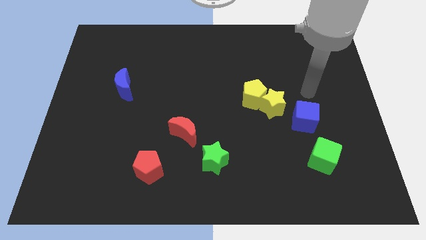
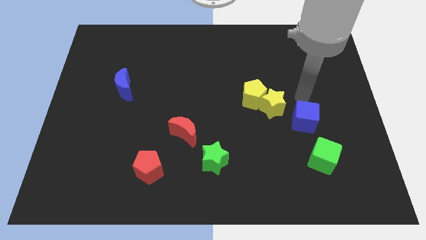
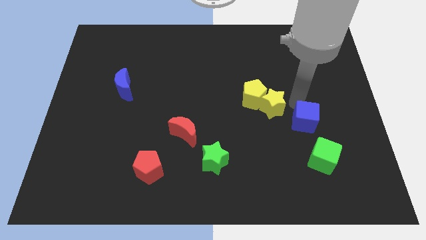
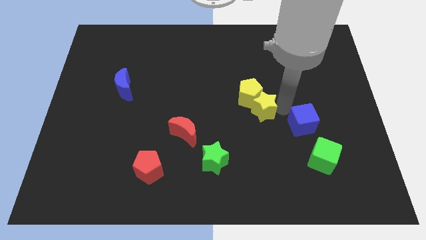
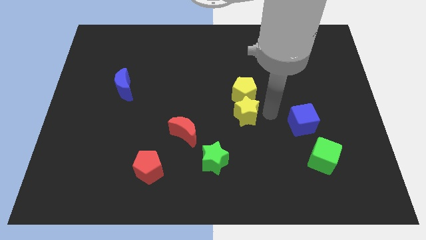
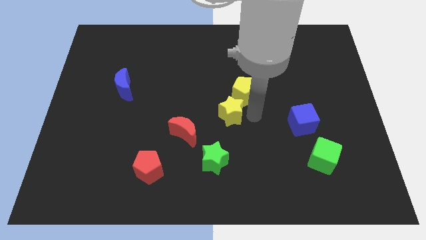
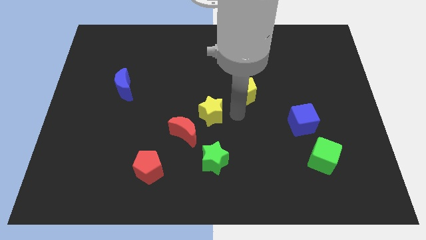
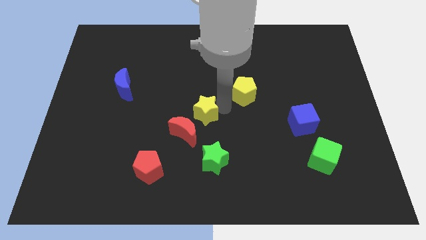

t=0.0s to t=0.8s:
separate the yellow pentagon from the yellow star

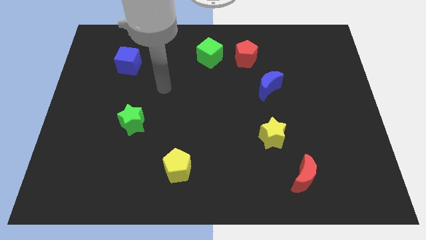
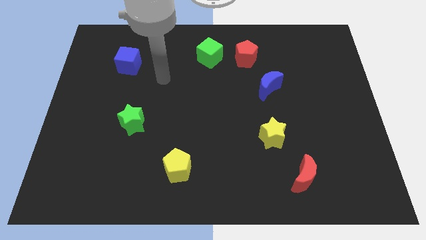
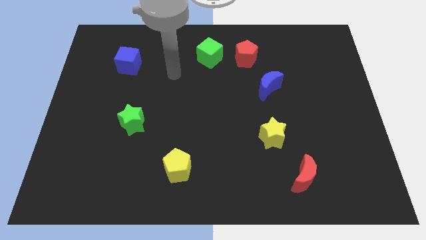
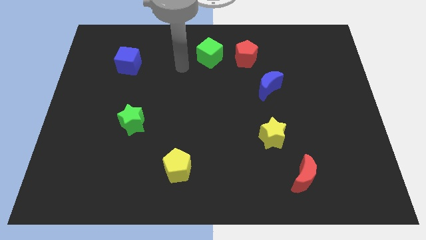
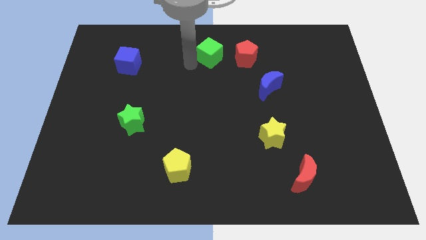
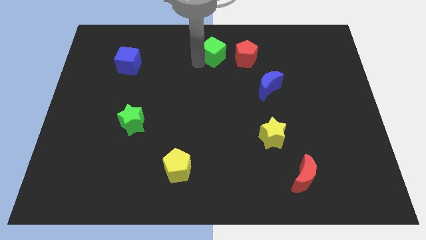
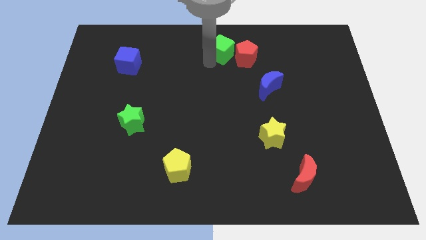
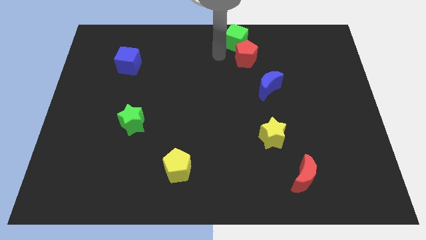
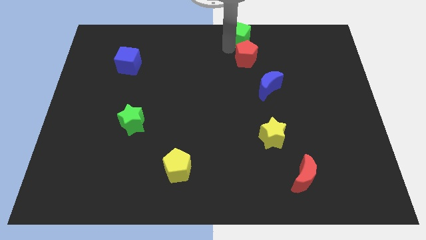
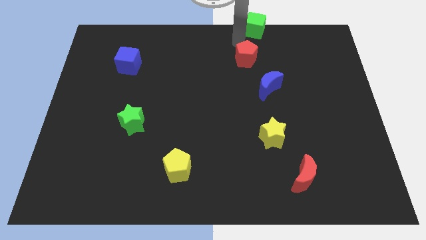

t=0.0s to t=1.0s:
move the red pentagon away from the green cube

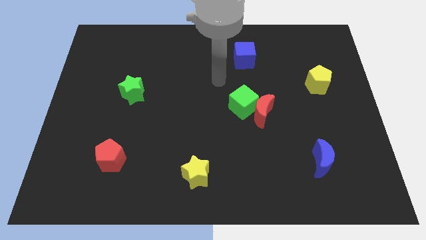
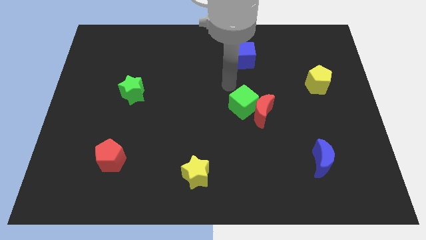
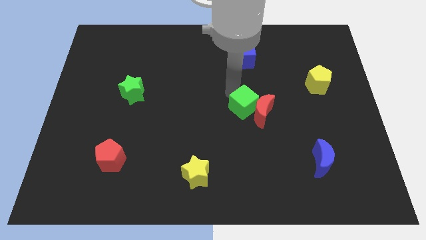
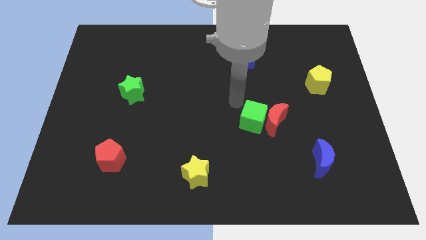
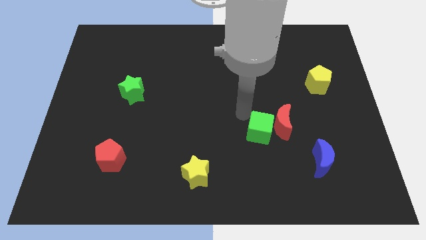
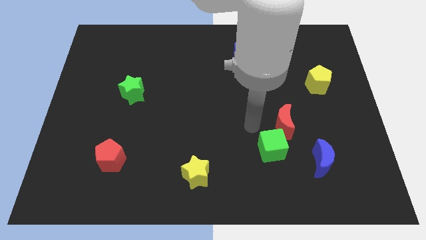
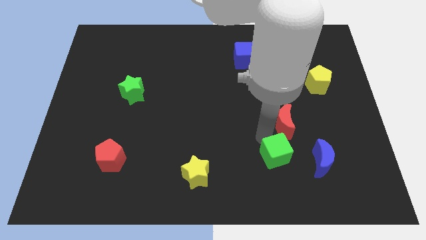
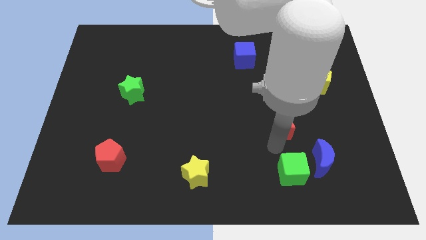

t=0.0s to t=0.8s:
pull the red moon apart from the green cube

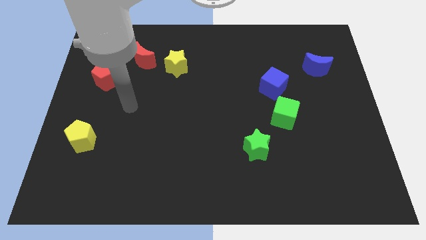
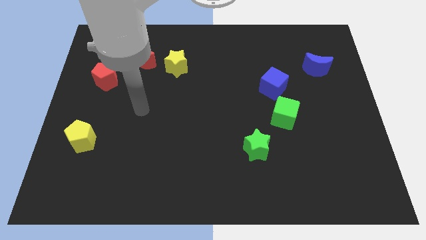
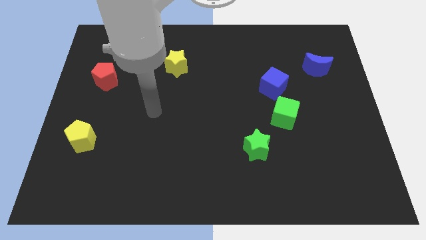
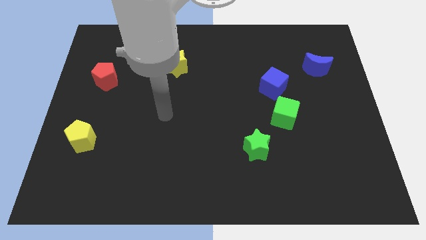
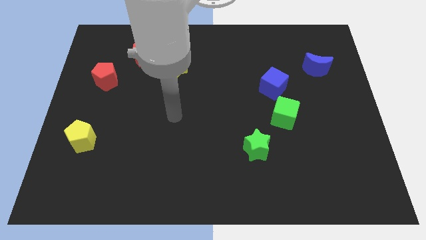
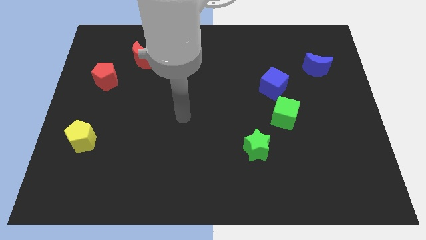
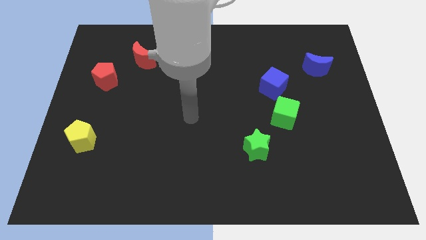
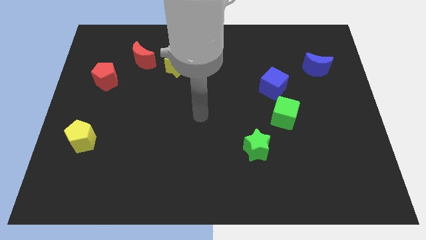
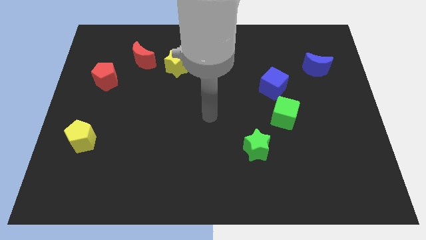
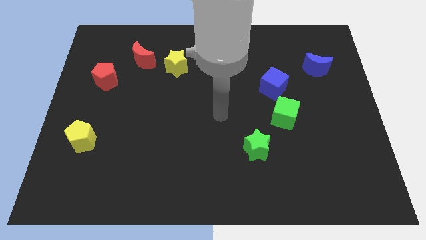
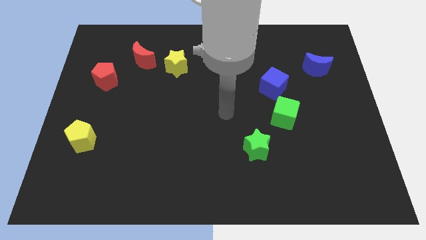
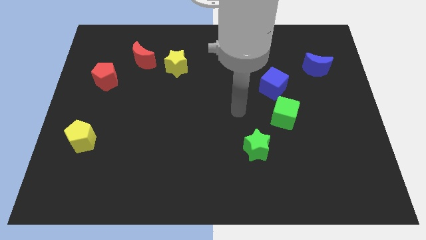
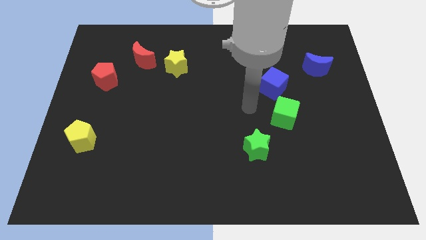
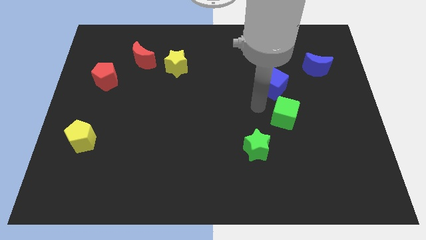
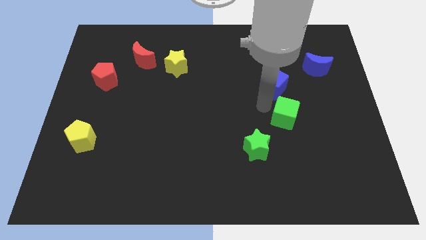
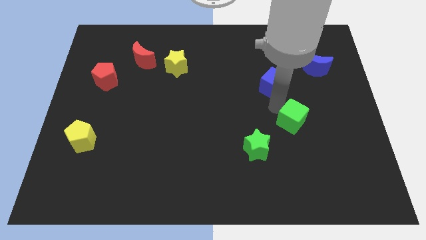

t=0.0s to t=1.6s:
pull the blue cube apart from the green cube

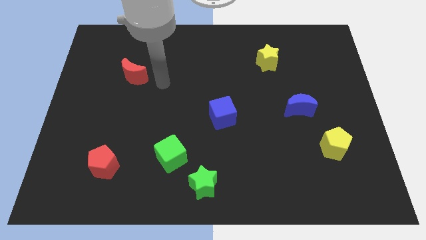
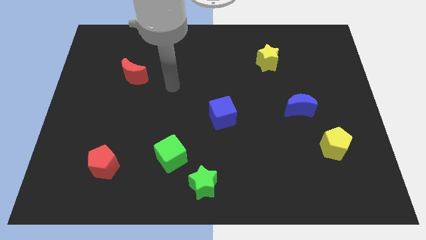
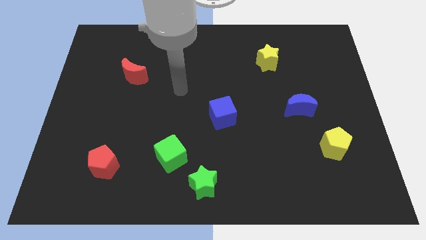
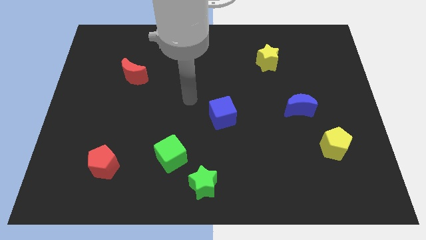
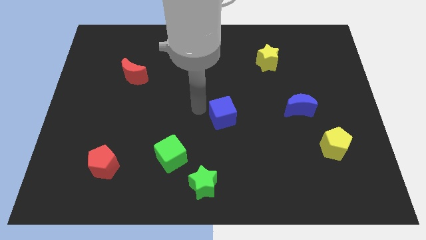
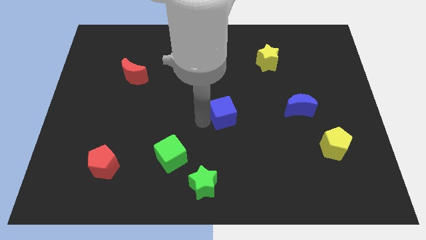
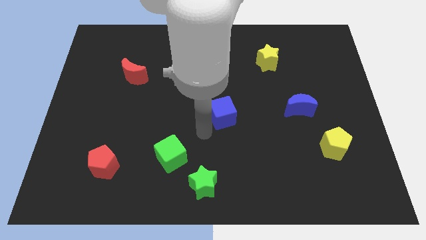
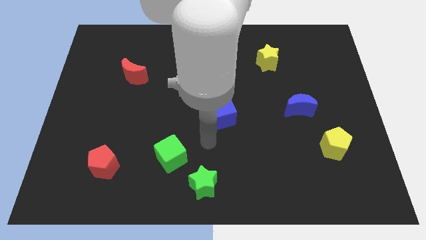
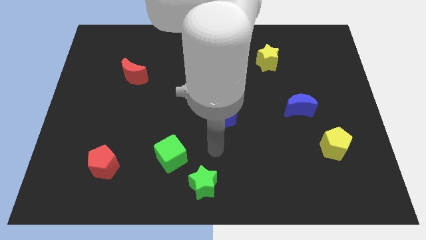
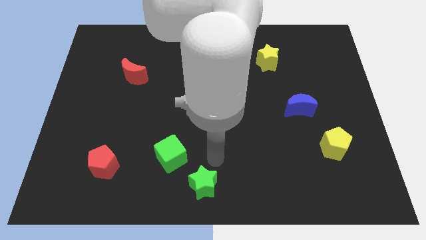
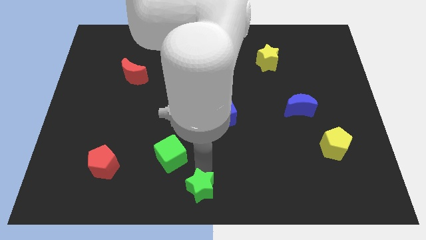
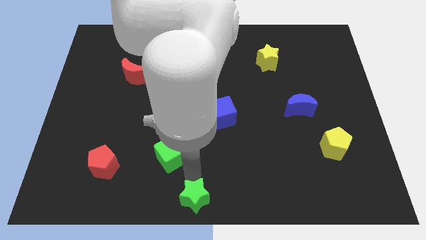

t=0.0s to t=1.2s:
separate the green cube from the green star

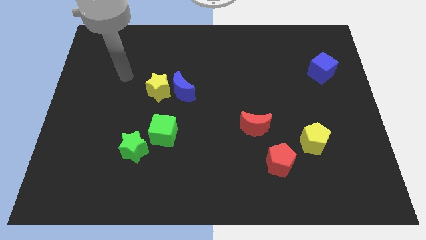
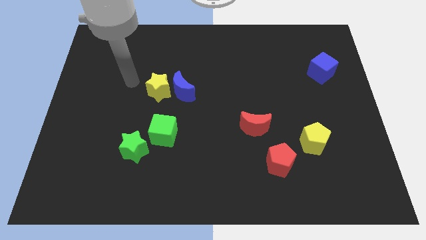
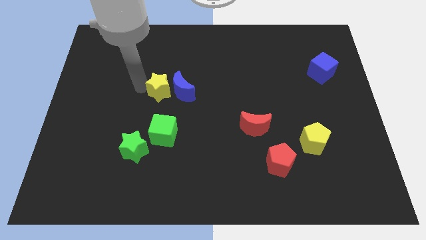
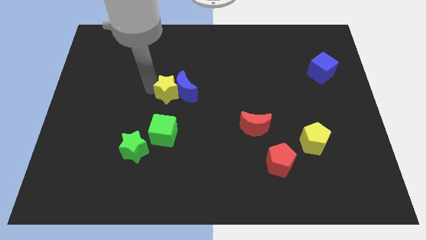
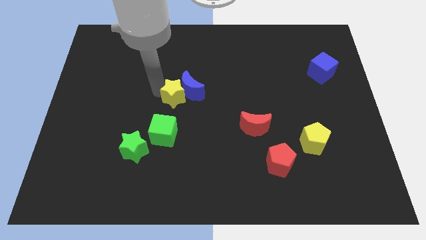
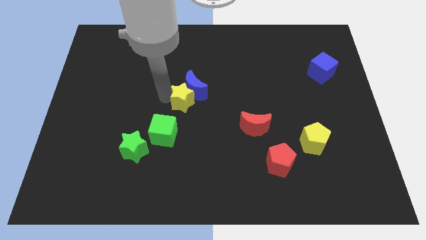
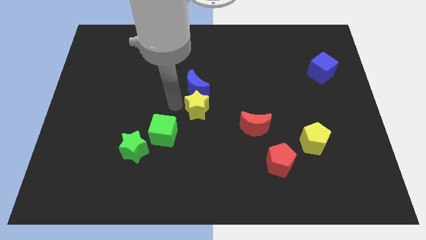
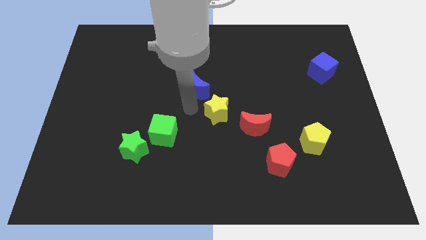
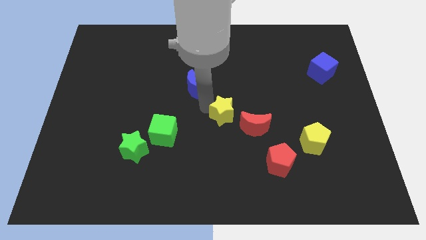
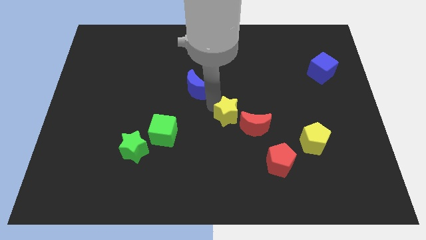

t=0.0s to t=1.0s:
move the blue moon away from the yellow star

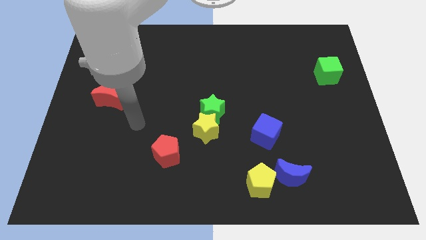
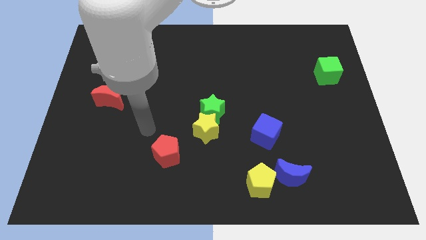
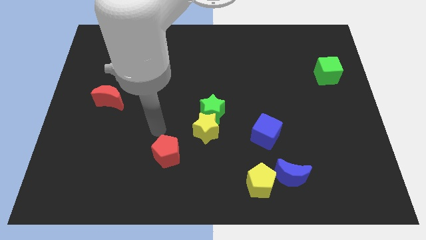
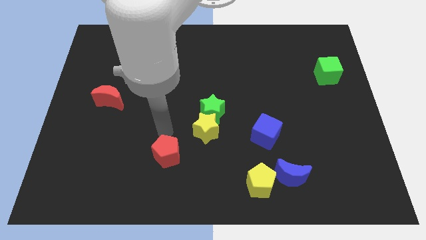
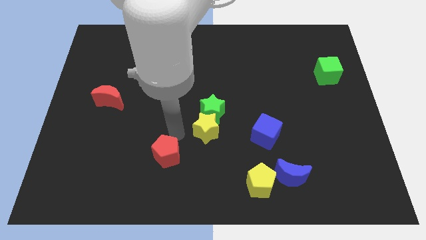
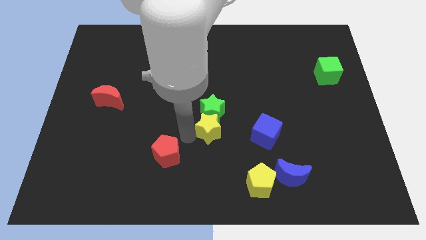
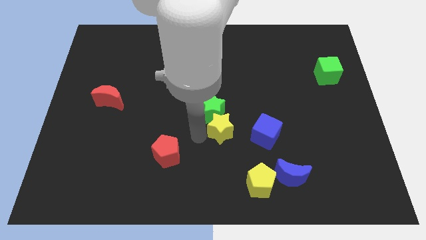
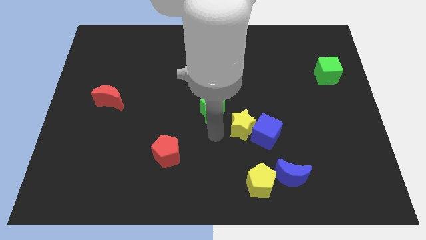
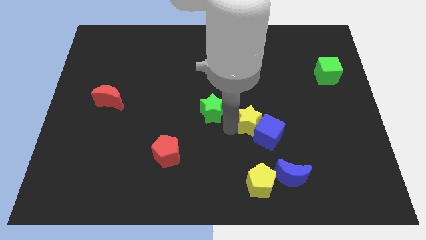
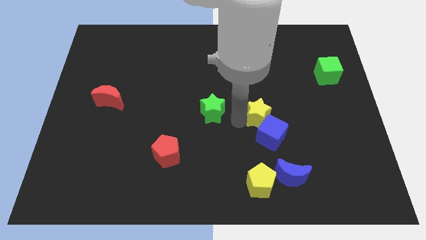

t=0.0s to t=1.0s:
move the green star away from the yellow star

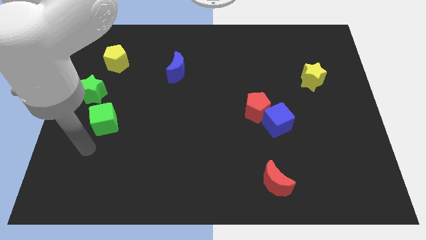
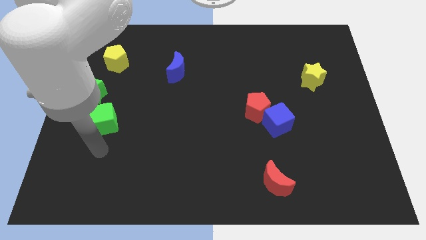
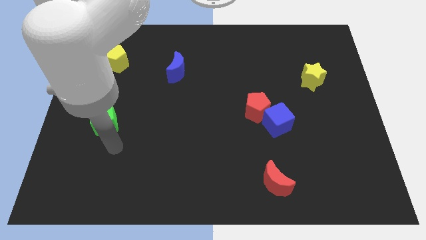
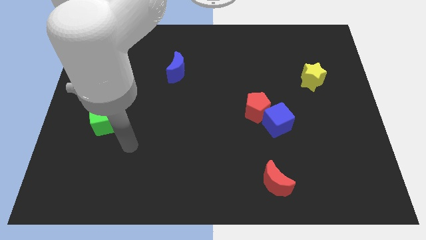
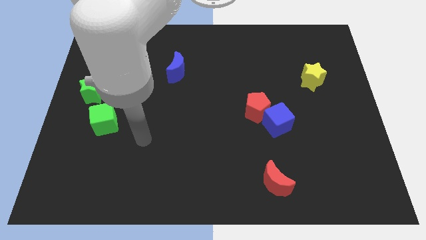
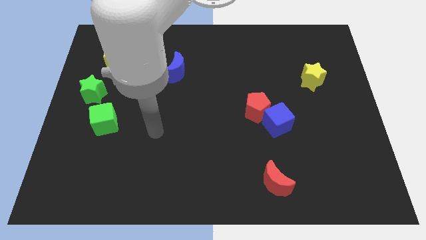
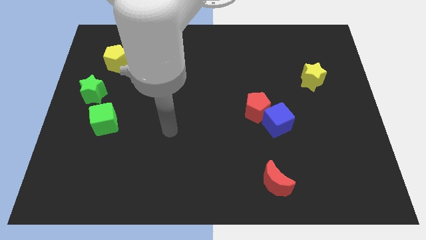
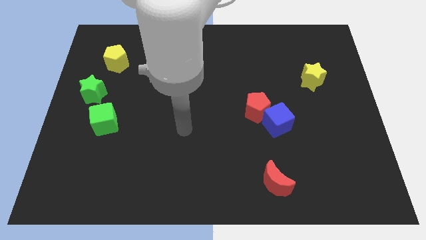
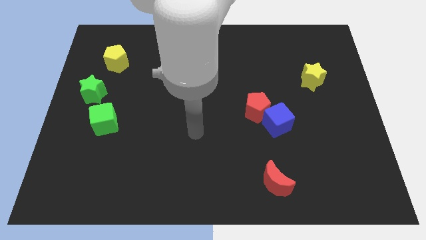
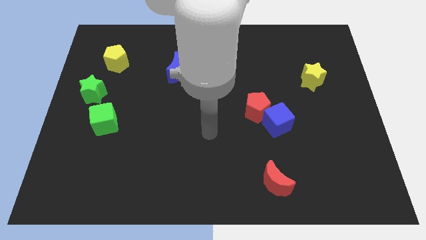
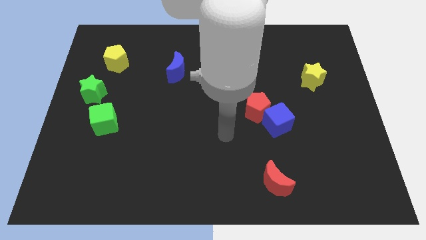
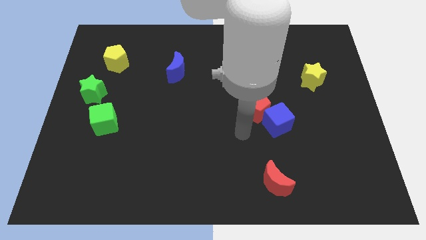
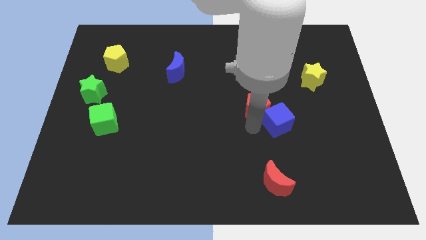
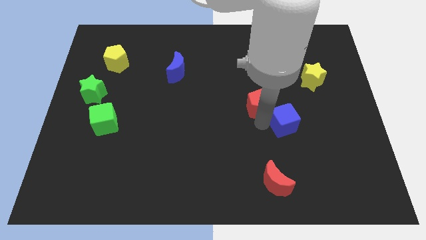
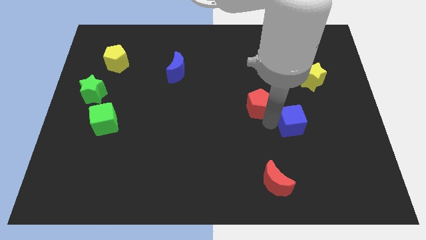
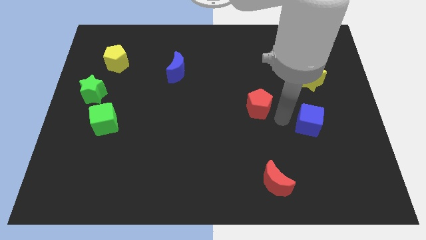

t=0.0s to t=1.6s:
move the red pentagon away from the blue cube

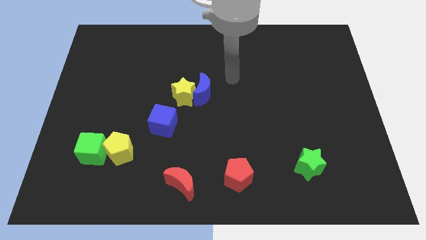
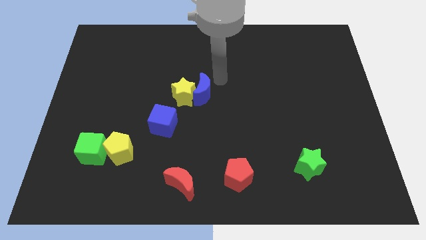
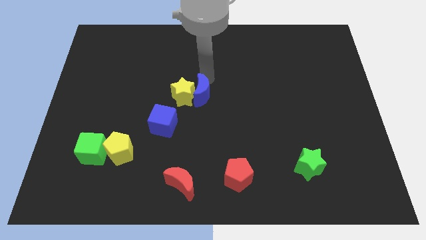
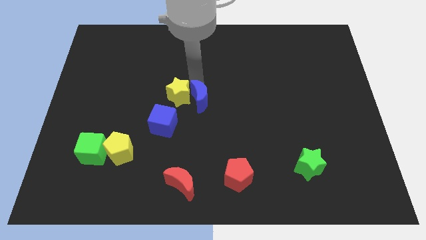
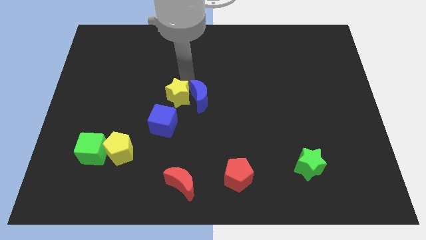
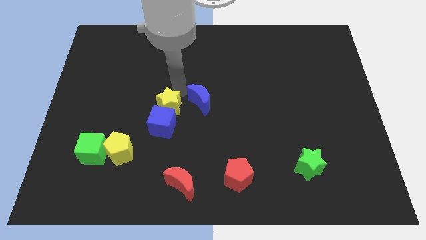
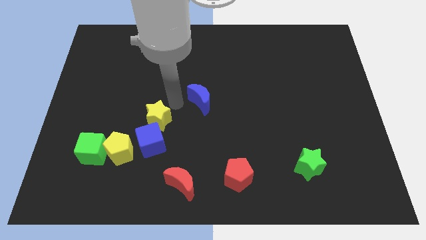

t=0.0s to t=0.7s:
pull the blue moon apart from the yellow star
